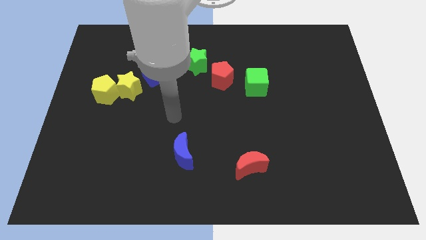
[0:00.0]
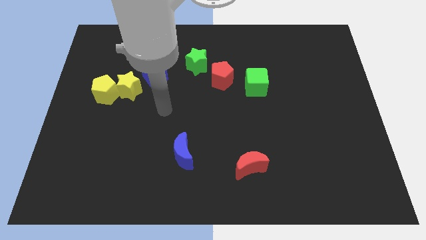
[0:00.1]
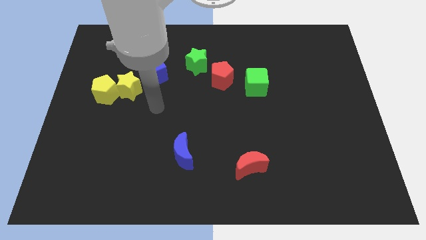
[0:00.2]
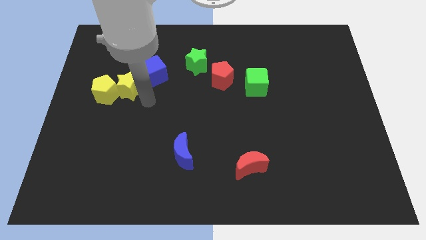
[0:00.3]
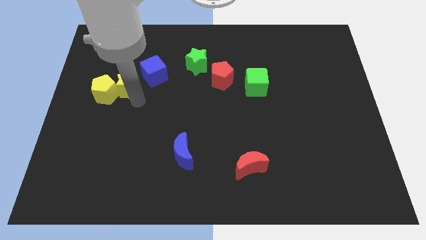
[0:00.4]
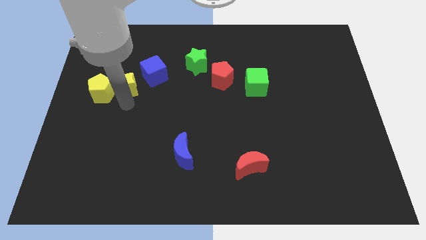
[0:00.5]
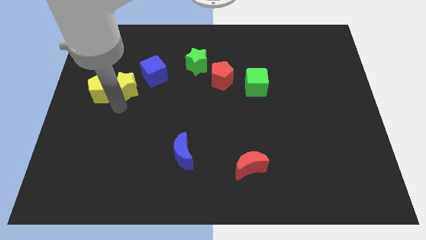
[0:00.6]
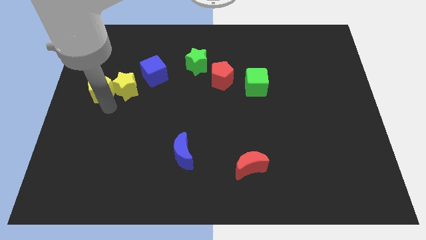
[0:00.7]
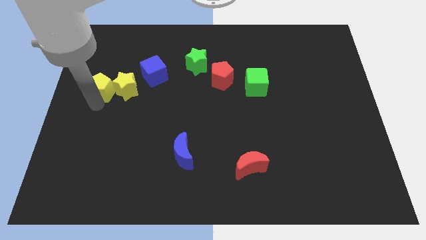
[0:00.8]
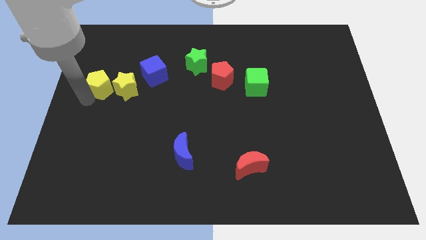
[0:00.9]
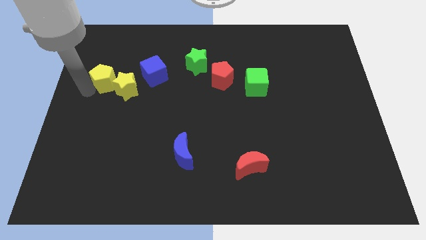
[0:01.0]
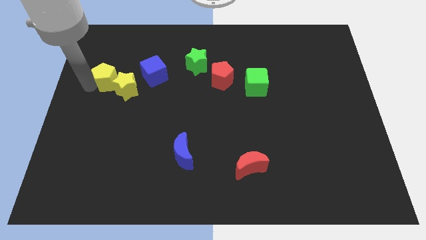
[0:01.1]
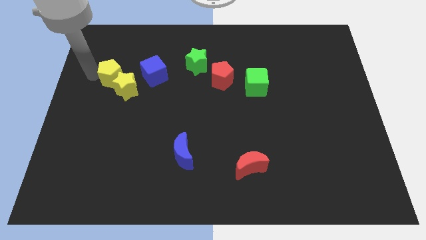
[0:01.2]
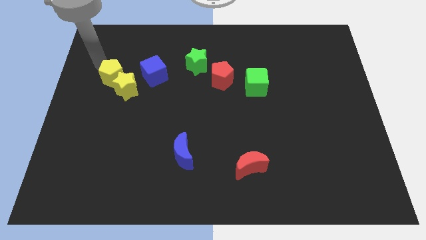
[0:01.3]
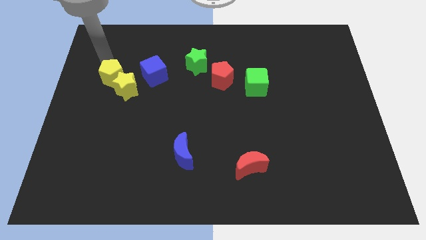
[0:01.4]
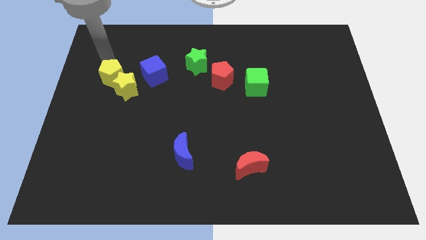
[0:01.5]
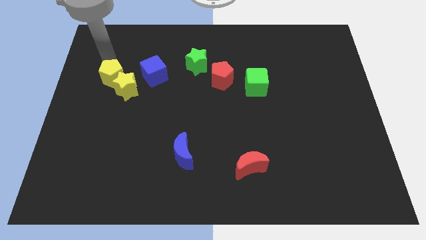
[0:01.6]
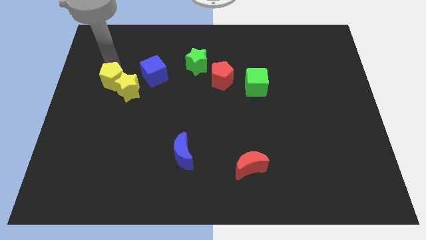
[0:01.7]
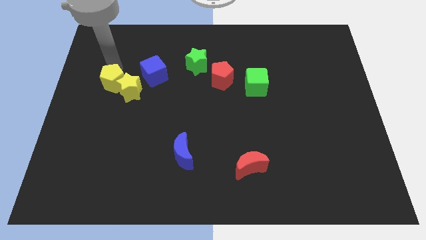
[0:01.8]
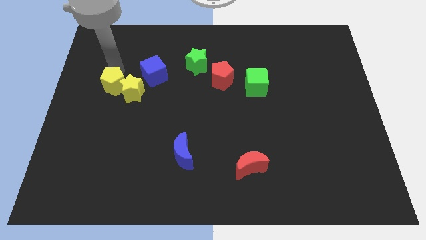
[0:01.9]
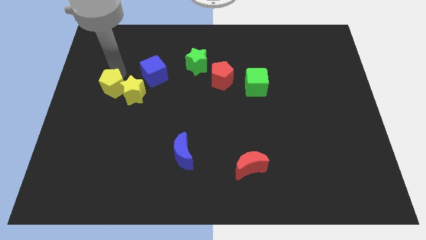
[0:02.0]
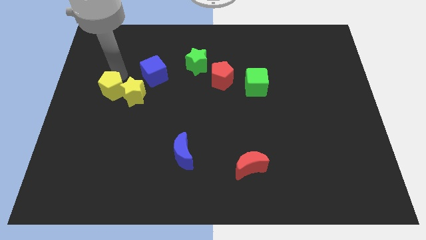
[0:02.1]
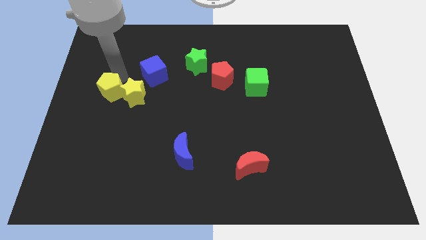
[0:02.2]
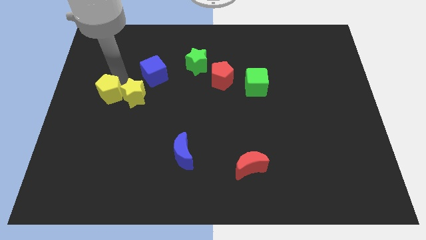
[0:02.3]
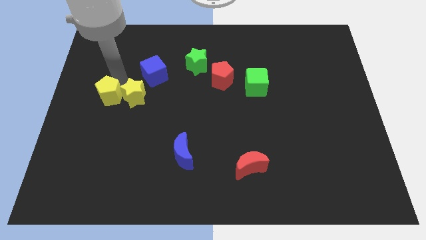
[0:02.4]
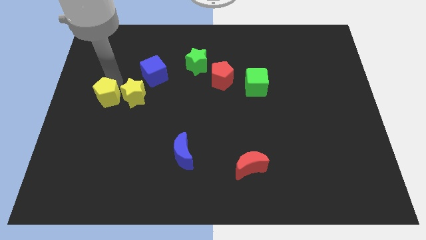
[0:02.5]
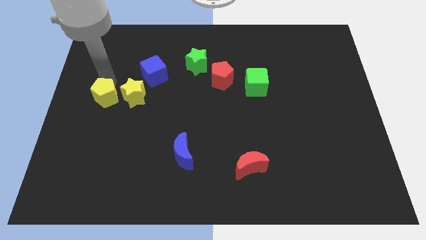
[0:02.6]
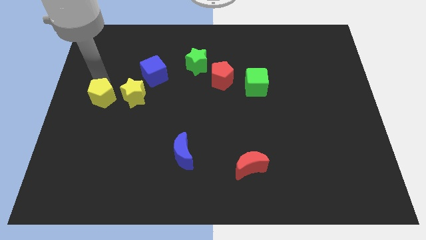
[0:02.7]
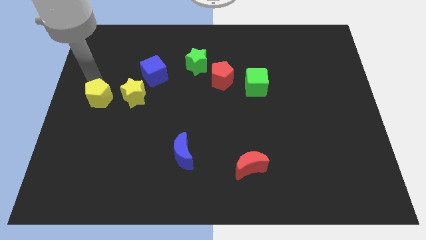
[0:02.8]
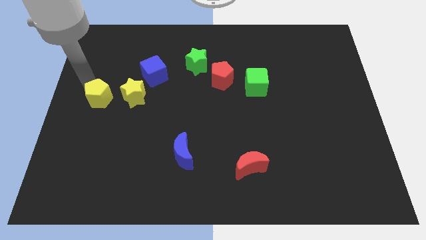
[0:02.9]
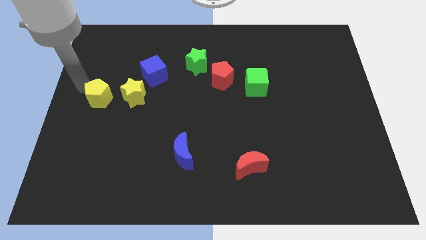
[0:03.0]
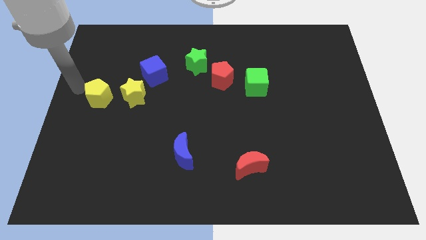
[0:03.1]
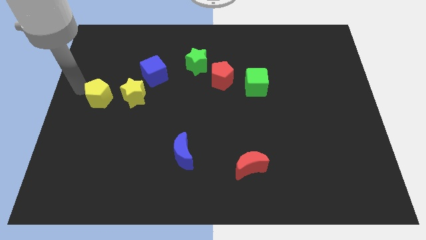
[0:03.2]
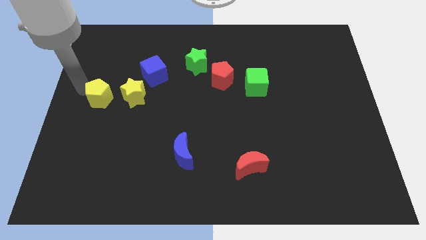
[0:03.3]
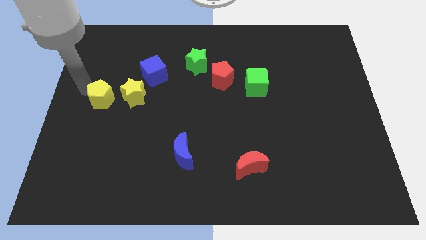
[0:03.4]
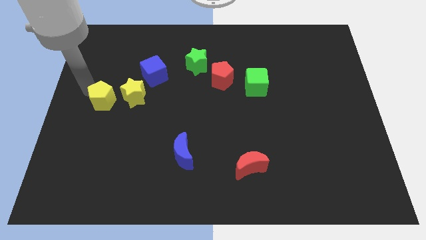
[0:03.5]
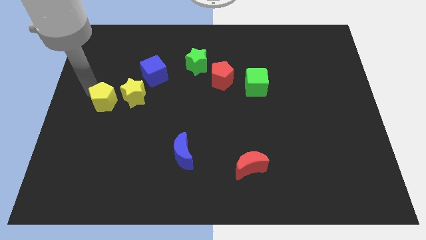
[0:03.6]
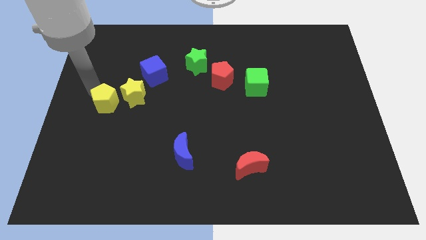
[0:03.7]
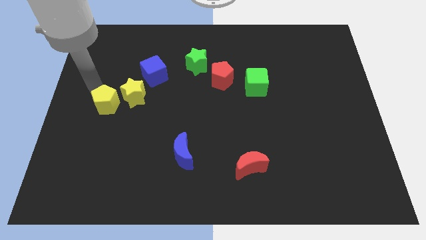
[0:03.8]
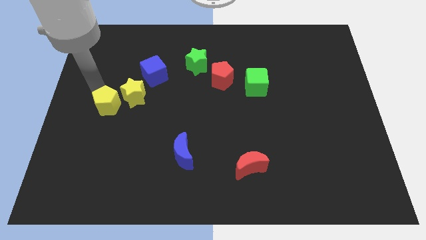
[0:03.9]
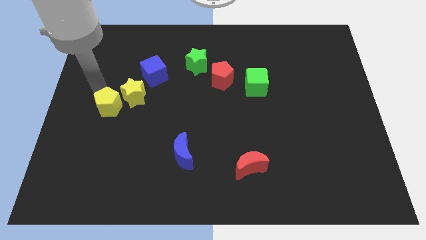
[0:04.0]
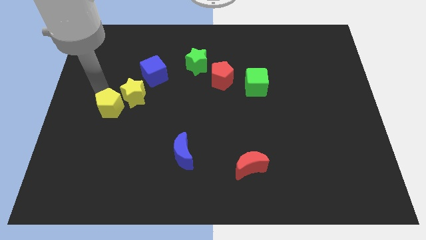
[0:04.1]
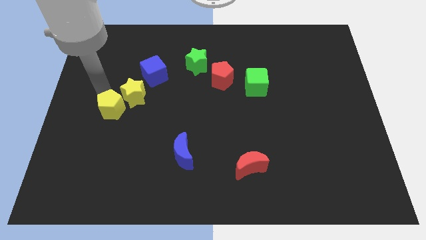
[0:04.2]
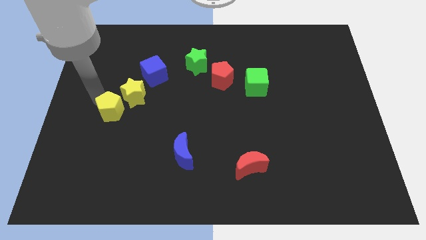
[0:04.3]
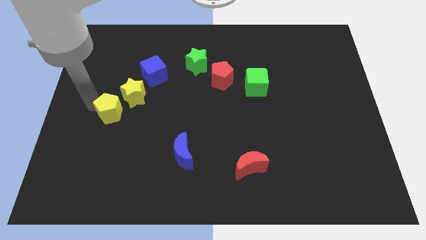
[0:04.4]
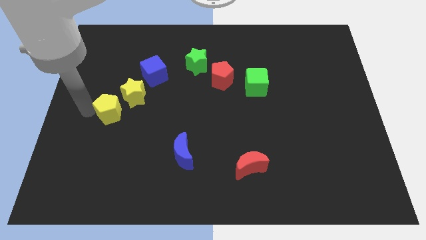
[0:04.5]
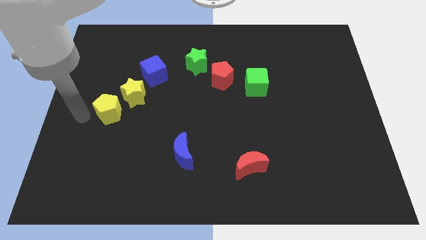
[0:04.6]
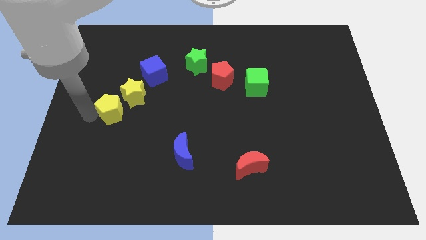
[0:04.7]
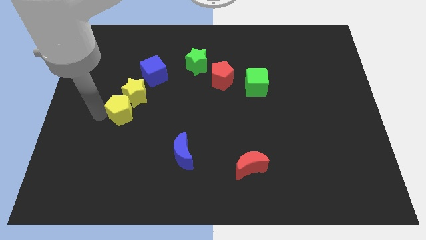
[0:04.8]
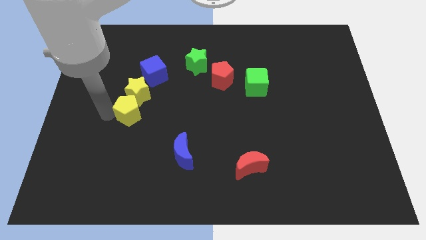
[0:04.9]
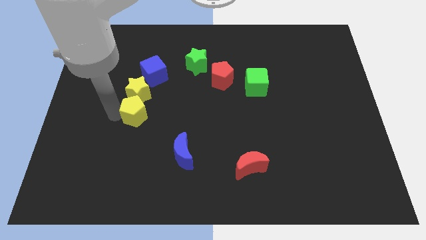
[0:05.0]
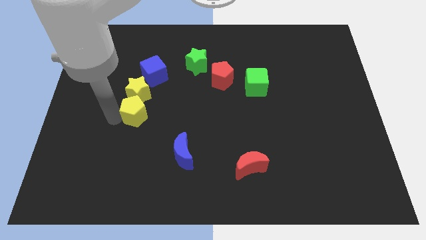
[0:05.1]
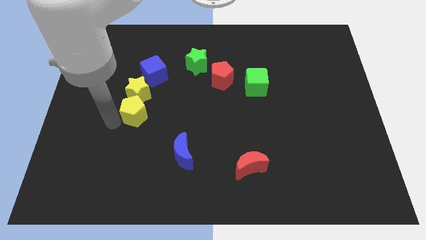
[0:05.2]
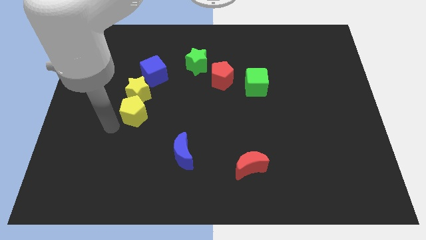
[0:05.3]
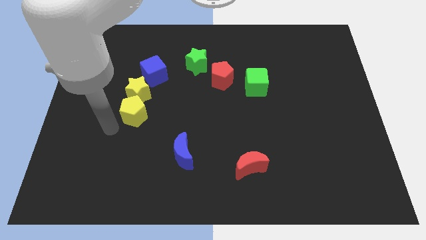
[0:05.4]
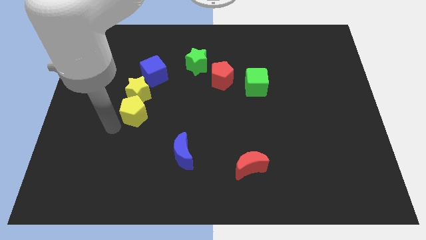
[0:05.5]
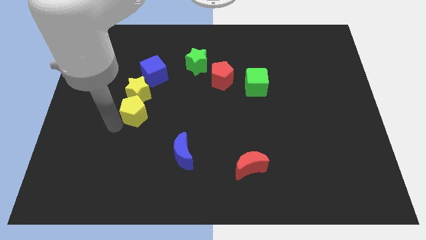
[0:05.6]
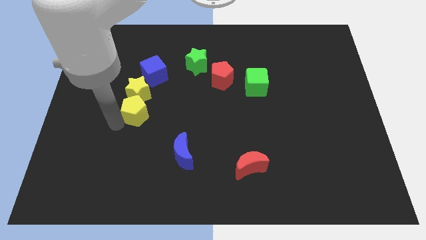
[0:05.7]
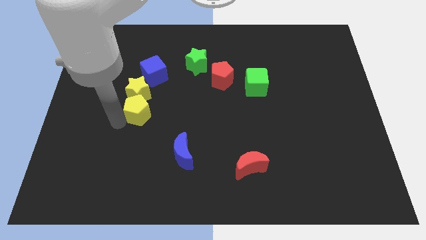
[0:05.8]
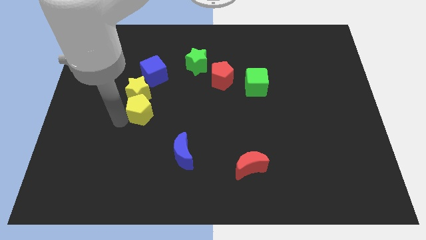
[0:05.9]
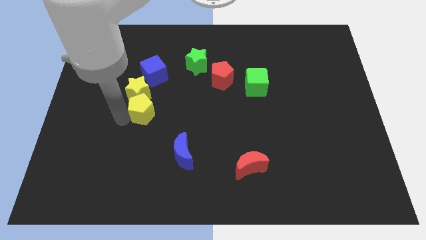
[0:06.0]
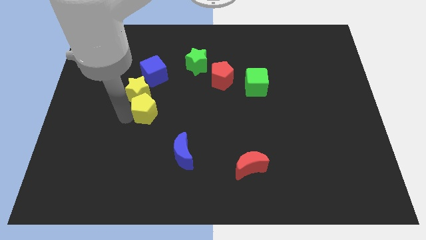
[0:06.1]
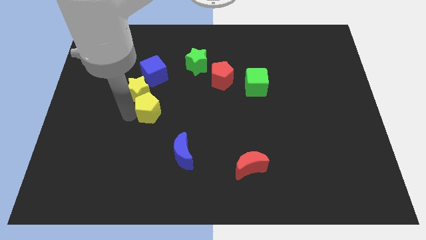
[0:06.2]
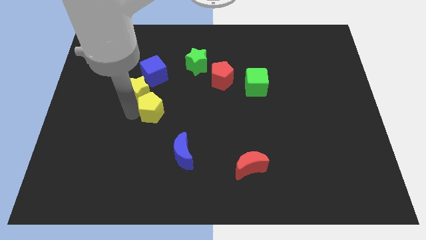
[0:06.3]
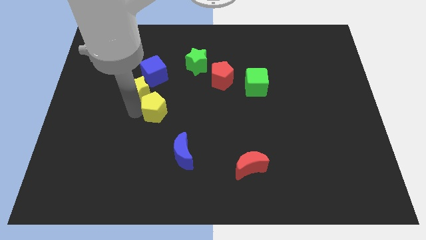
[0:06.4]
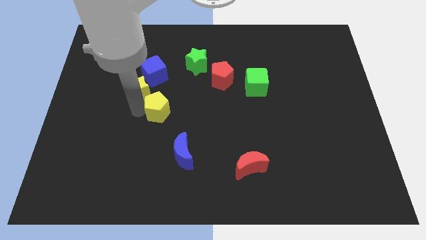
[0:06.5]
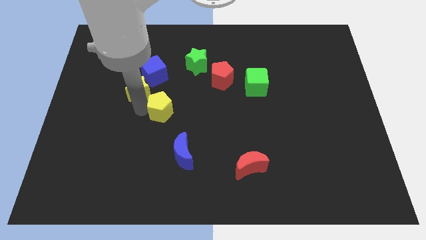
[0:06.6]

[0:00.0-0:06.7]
move the yellow pentagon to the middle of the board

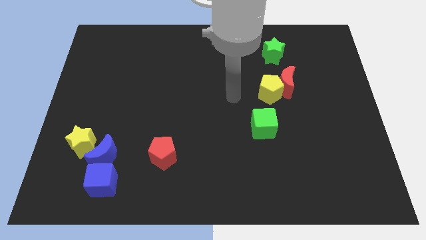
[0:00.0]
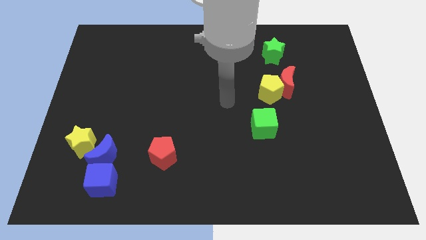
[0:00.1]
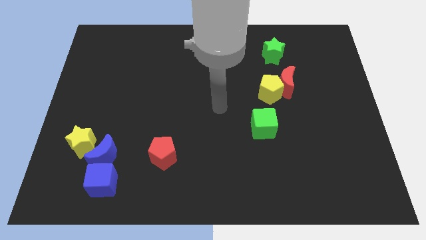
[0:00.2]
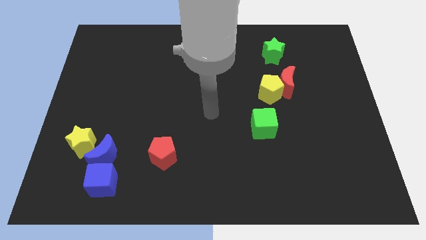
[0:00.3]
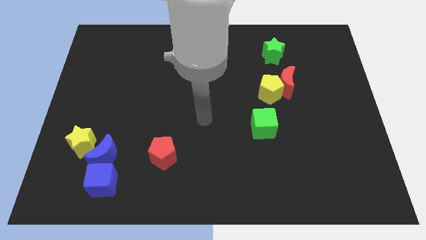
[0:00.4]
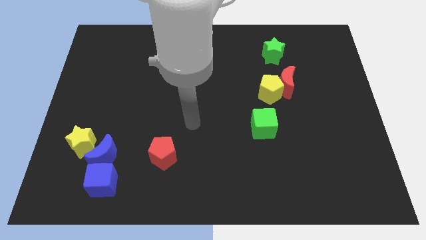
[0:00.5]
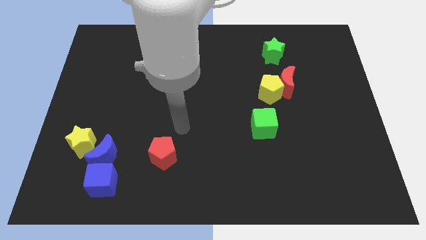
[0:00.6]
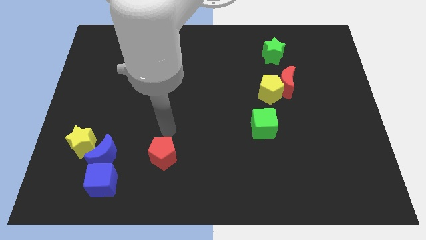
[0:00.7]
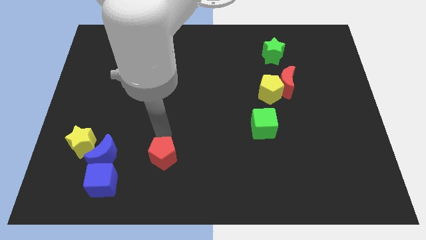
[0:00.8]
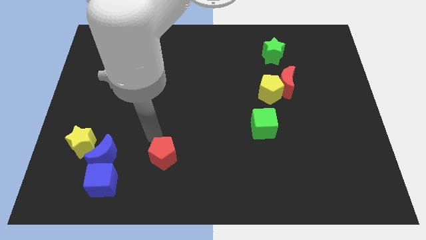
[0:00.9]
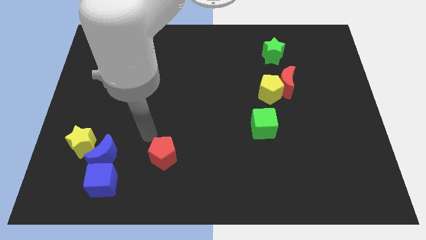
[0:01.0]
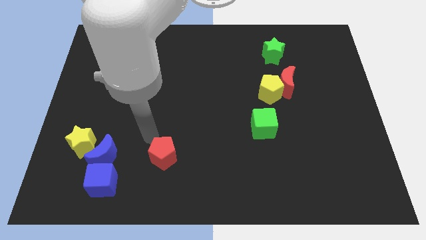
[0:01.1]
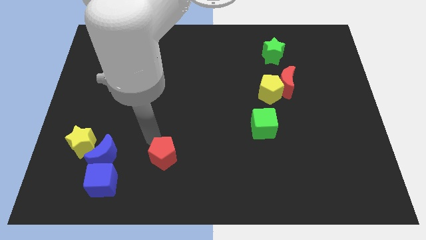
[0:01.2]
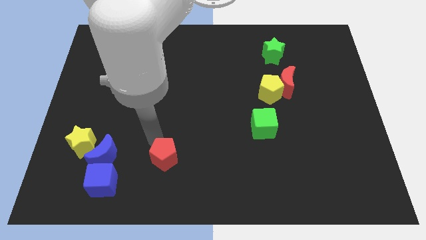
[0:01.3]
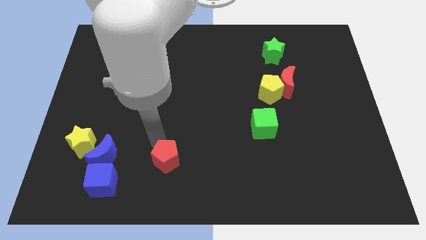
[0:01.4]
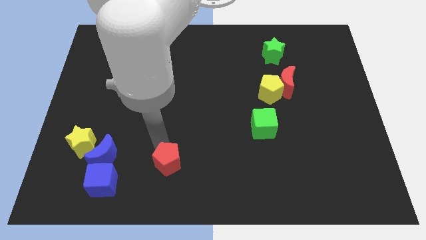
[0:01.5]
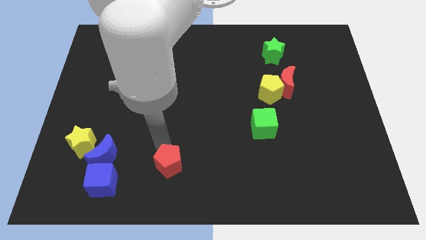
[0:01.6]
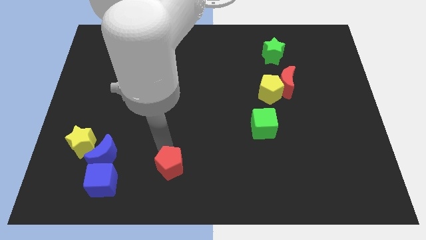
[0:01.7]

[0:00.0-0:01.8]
move the red pentagon to the bottom
